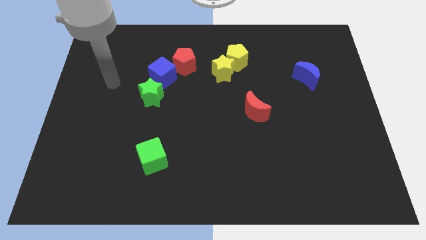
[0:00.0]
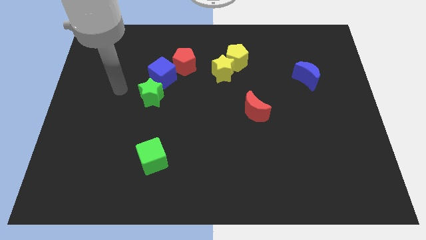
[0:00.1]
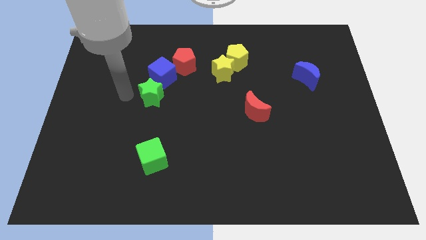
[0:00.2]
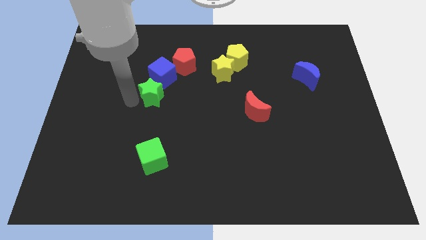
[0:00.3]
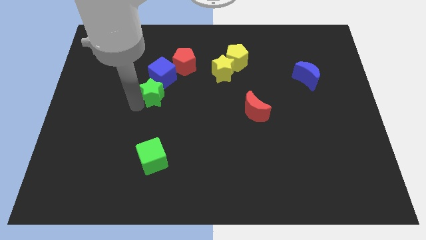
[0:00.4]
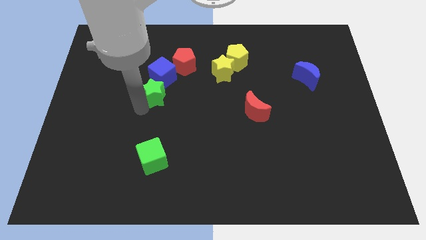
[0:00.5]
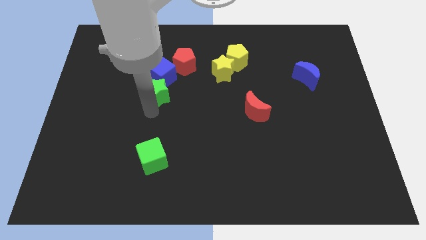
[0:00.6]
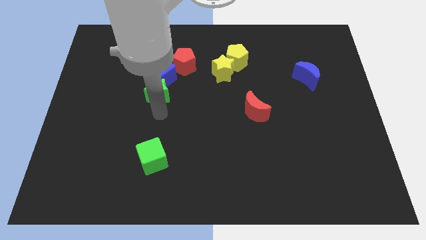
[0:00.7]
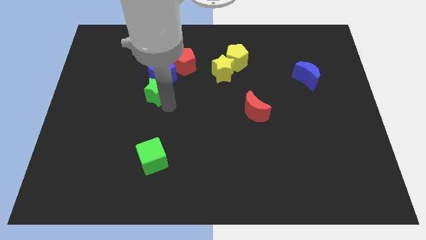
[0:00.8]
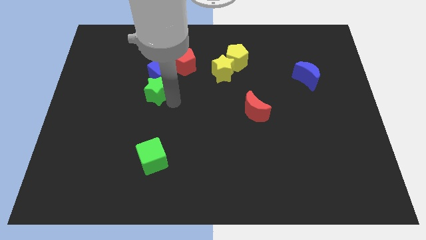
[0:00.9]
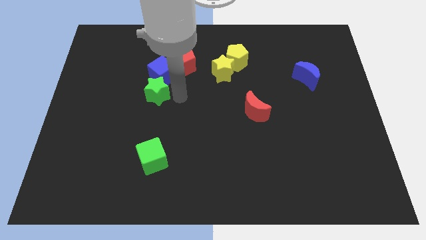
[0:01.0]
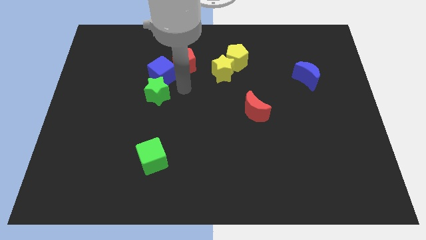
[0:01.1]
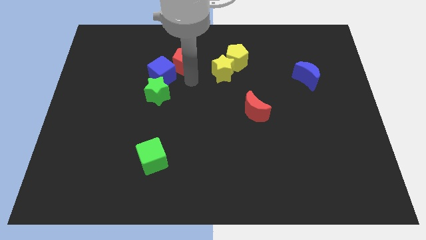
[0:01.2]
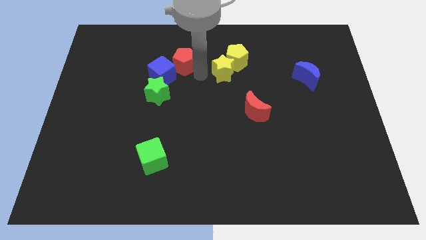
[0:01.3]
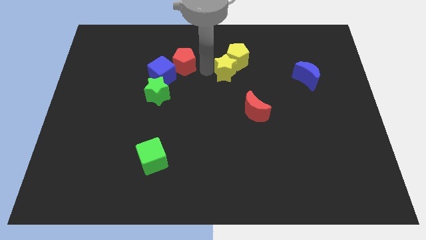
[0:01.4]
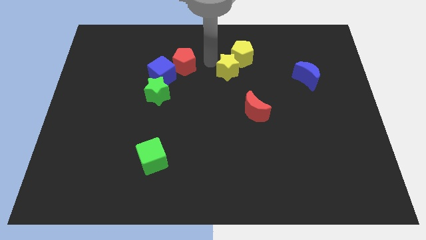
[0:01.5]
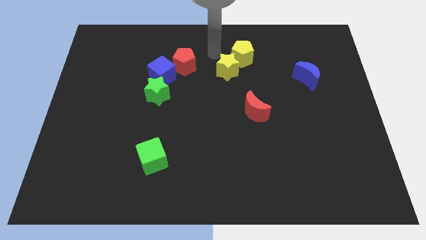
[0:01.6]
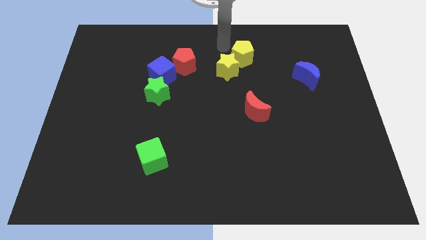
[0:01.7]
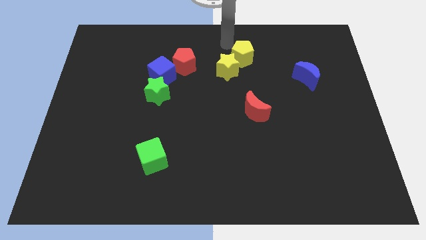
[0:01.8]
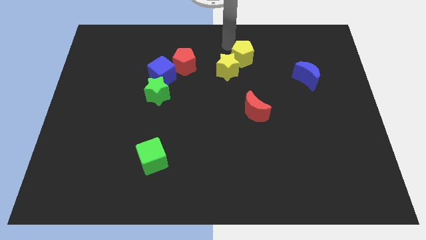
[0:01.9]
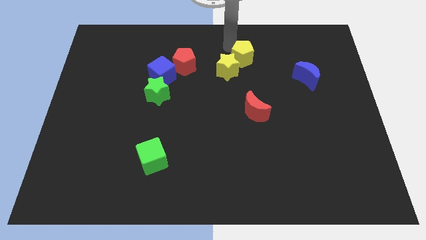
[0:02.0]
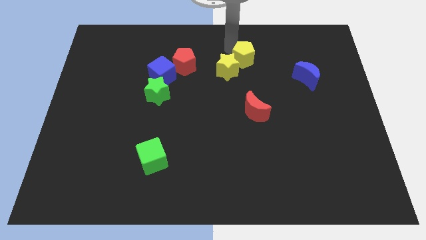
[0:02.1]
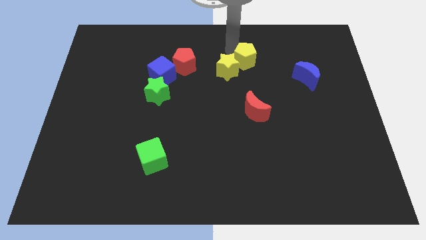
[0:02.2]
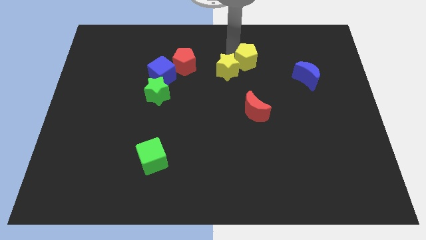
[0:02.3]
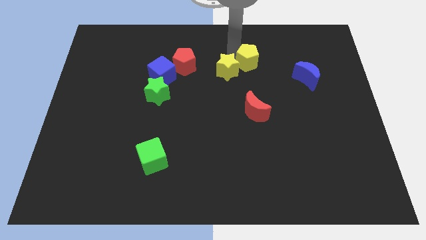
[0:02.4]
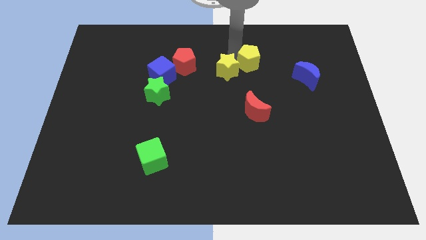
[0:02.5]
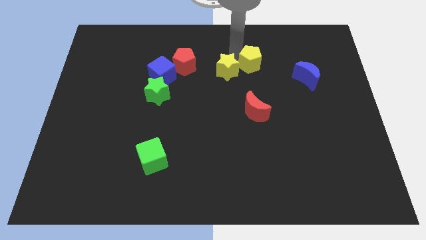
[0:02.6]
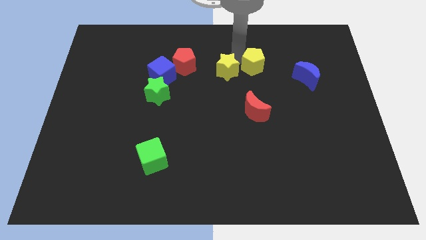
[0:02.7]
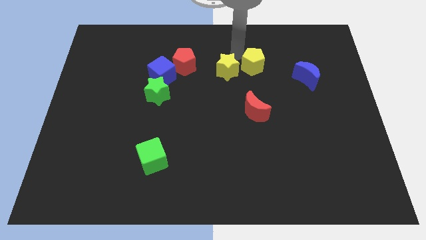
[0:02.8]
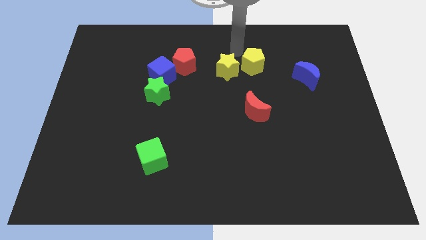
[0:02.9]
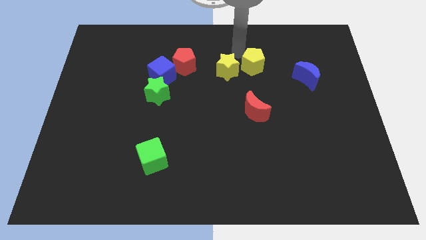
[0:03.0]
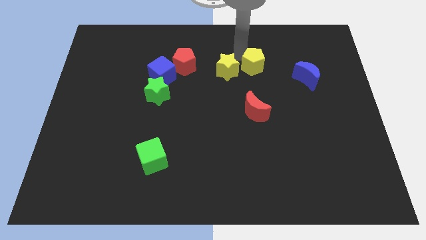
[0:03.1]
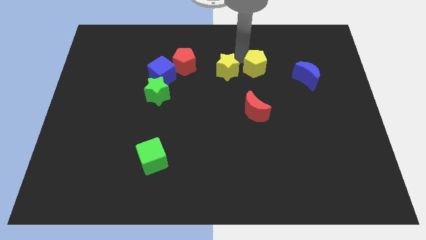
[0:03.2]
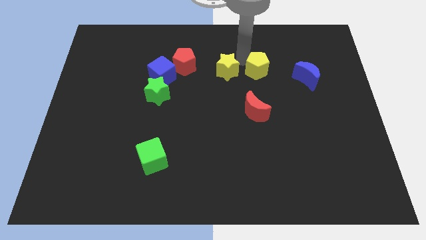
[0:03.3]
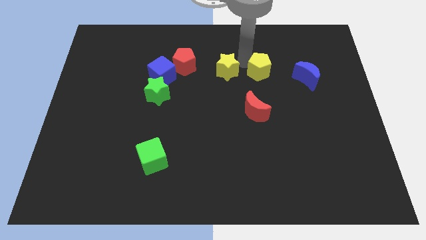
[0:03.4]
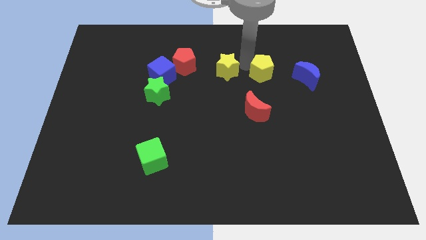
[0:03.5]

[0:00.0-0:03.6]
move the yellow pentagon down and right a little

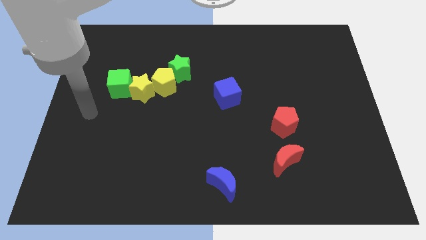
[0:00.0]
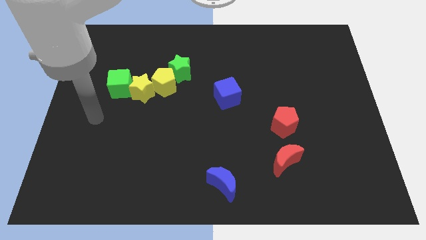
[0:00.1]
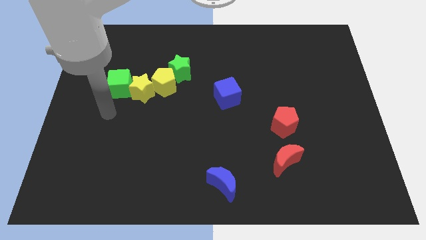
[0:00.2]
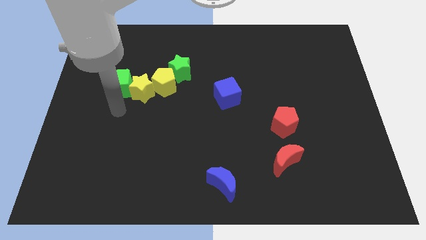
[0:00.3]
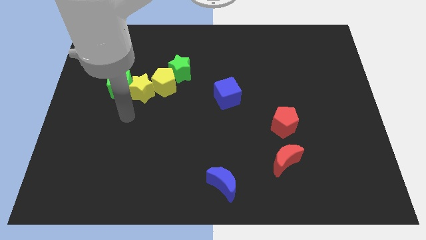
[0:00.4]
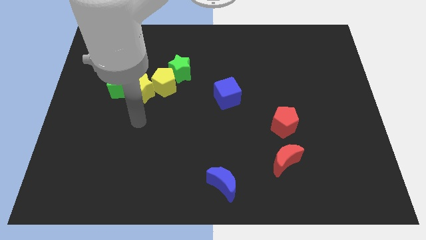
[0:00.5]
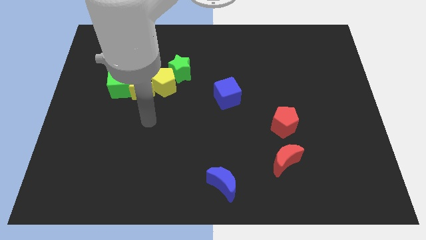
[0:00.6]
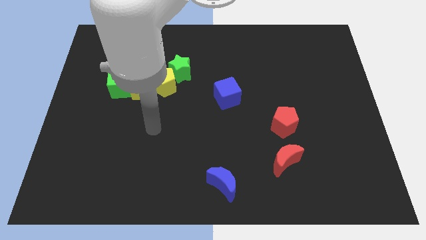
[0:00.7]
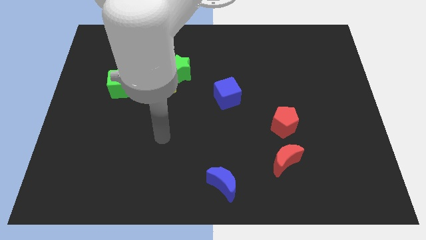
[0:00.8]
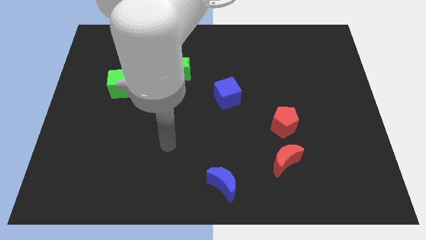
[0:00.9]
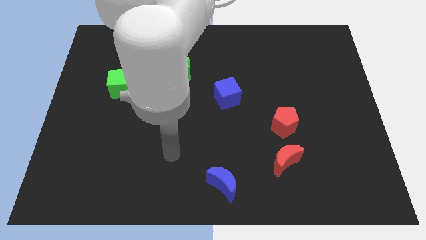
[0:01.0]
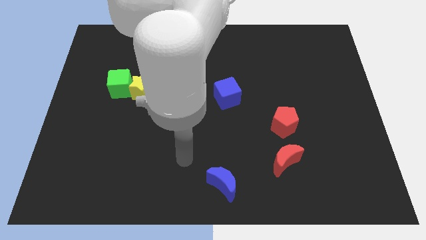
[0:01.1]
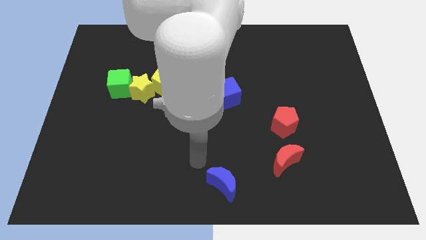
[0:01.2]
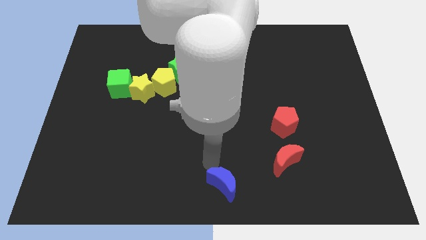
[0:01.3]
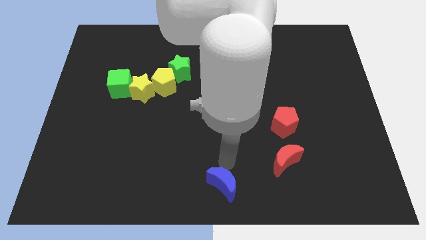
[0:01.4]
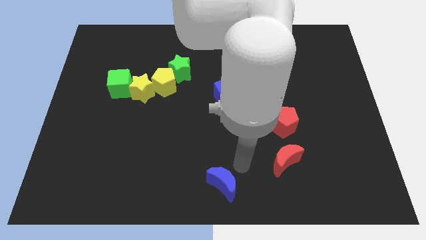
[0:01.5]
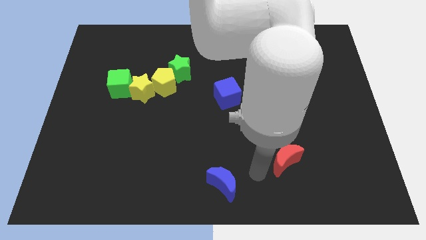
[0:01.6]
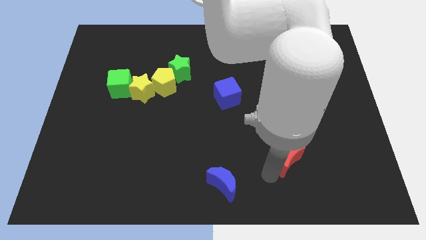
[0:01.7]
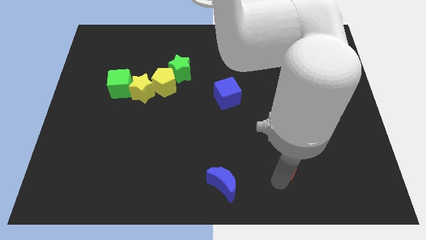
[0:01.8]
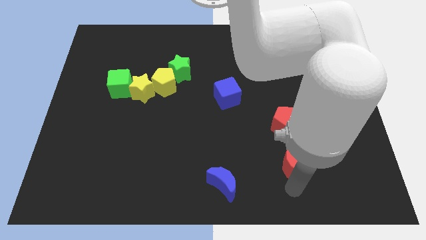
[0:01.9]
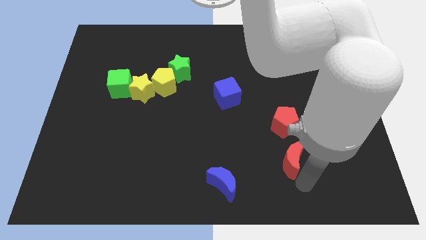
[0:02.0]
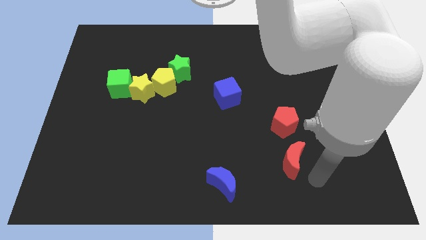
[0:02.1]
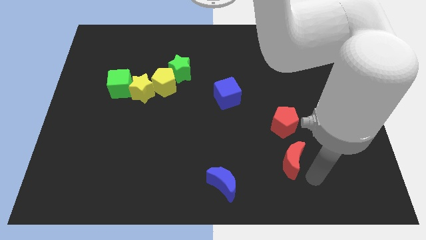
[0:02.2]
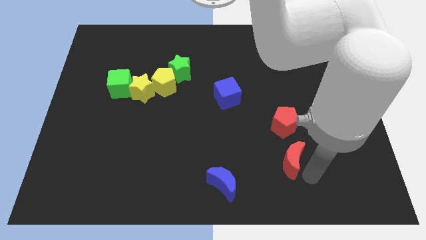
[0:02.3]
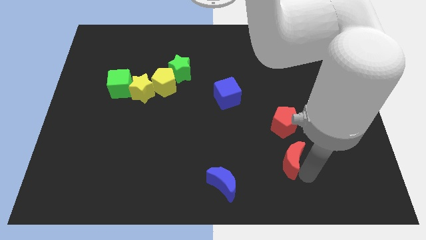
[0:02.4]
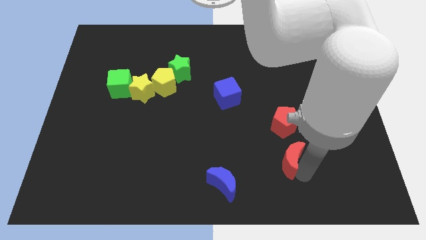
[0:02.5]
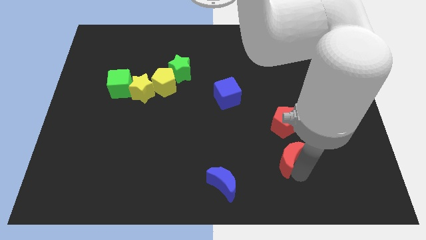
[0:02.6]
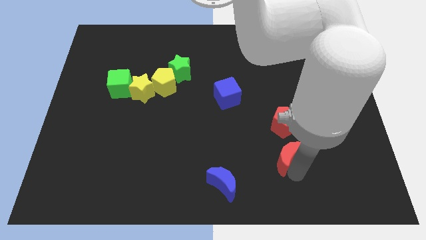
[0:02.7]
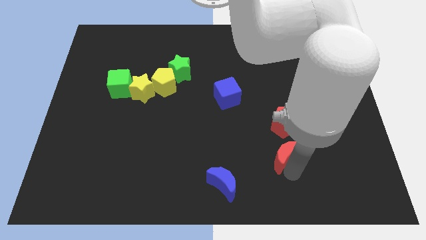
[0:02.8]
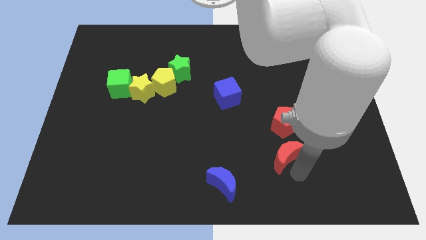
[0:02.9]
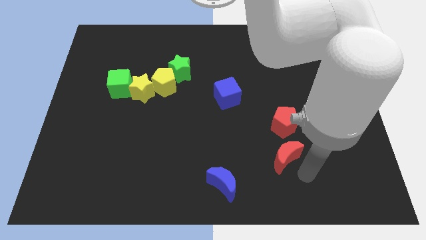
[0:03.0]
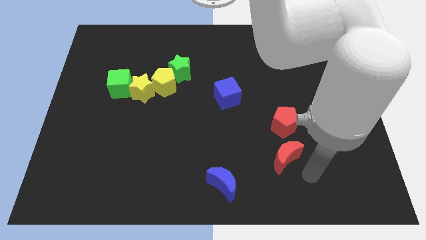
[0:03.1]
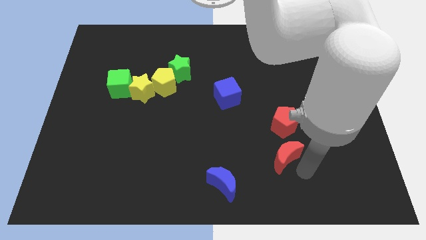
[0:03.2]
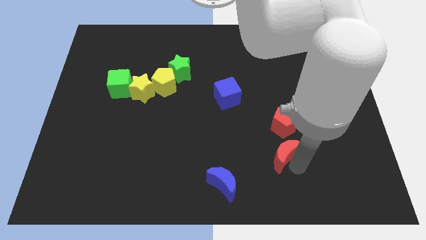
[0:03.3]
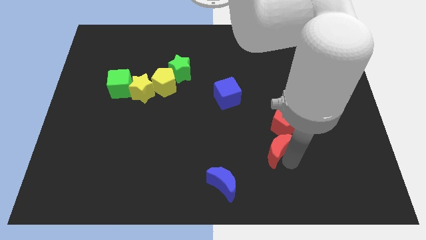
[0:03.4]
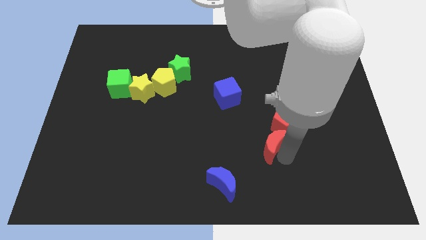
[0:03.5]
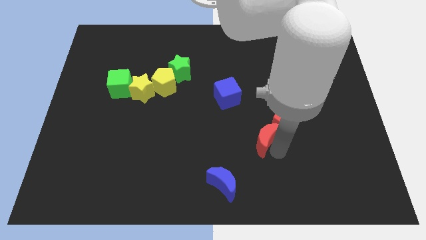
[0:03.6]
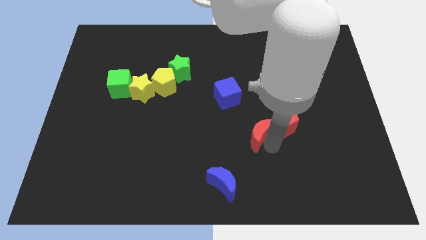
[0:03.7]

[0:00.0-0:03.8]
slightly slide the red moon diagonally upwards and to the left

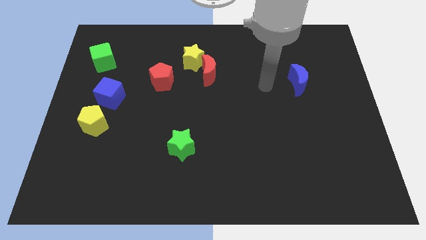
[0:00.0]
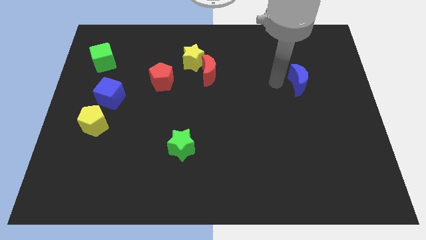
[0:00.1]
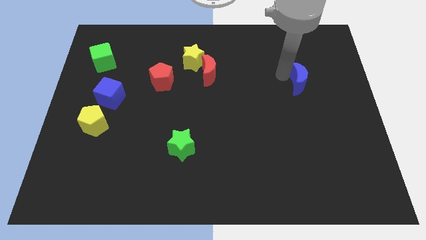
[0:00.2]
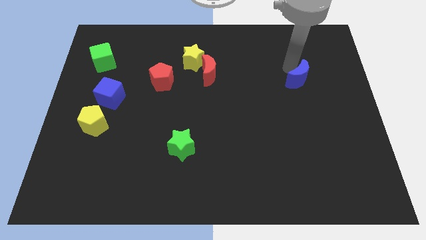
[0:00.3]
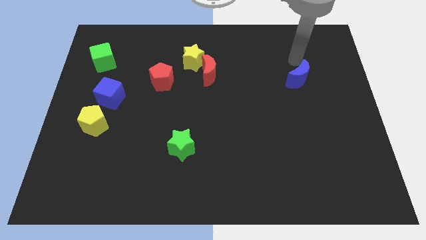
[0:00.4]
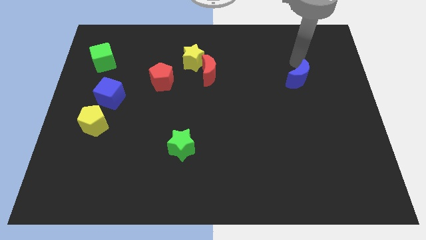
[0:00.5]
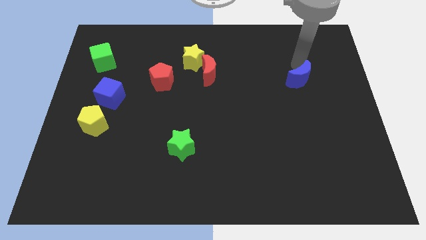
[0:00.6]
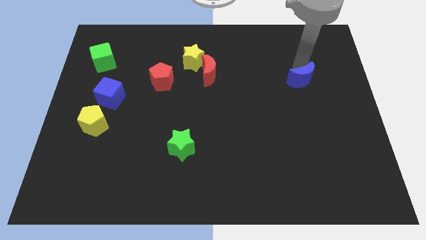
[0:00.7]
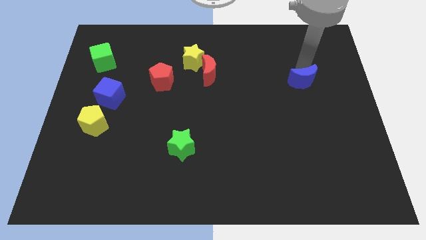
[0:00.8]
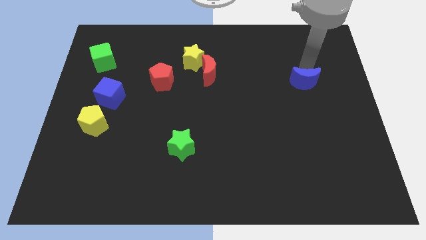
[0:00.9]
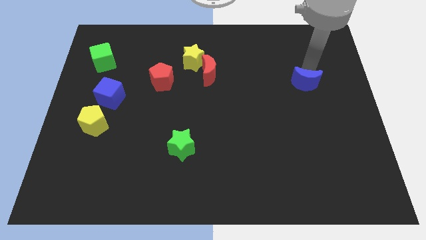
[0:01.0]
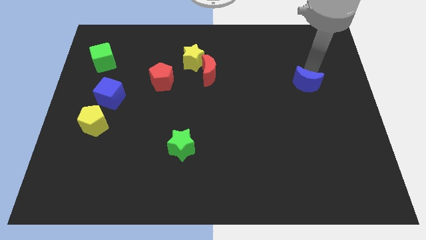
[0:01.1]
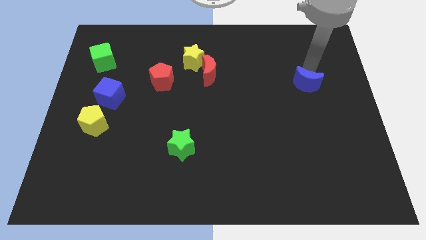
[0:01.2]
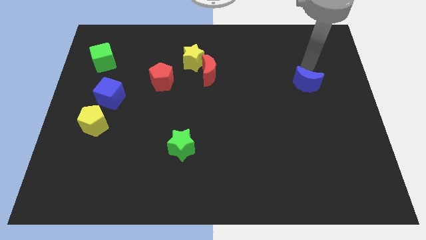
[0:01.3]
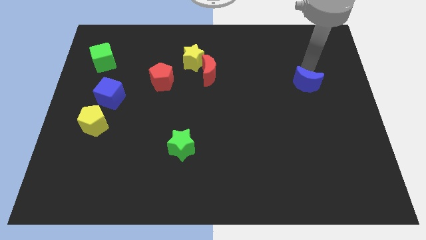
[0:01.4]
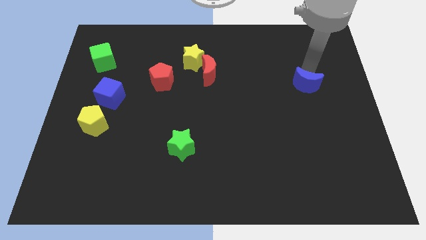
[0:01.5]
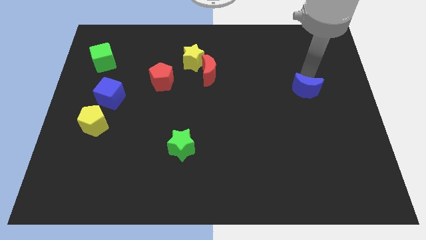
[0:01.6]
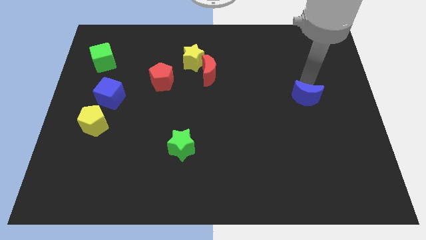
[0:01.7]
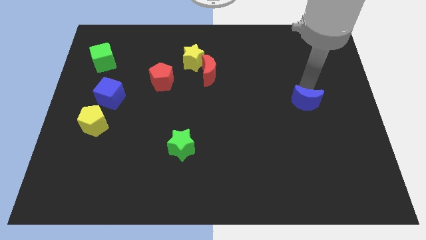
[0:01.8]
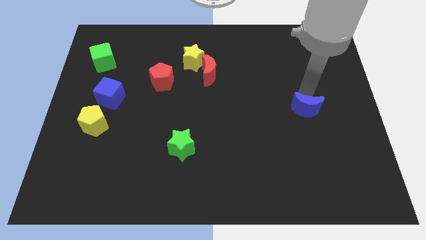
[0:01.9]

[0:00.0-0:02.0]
slightly push the blue moon downwards
